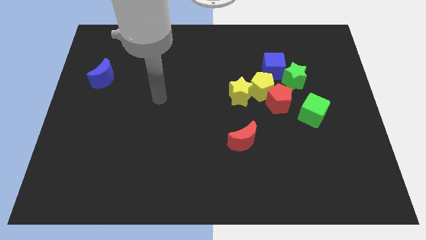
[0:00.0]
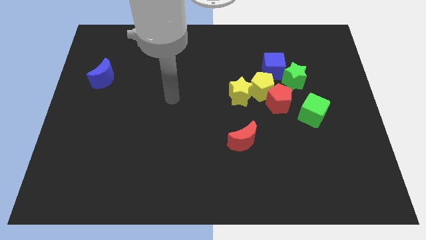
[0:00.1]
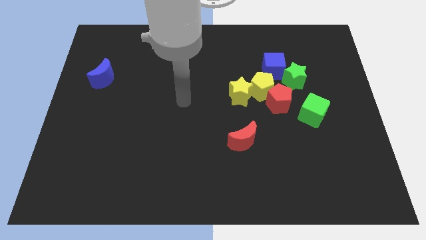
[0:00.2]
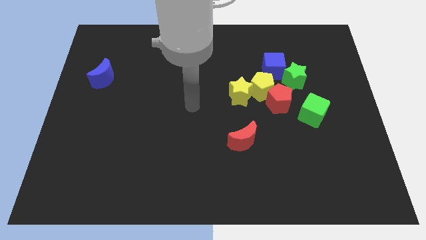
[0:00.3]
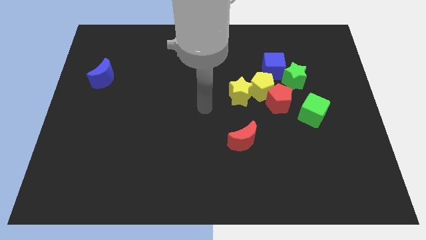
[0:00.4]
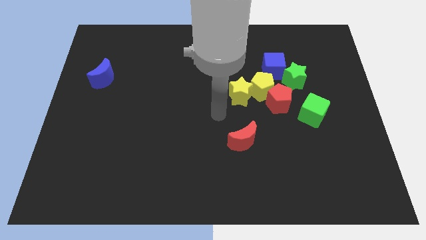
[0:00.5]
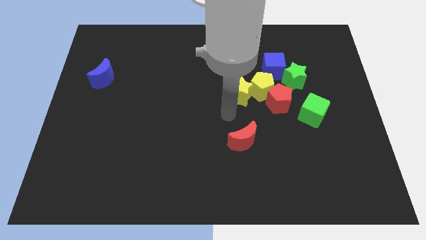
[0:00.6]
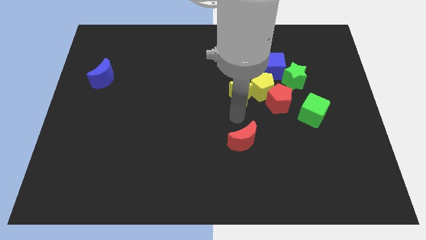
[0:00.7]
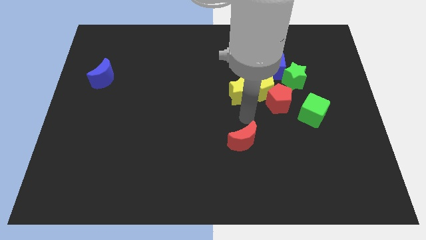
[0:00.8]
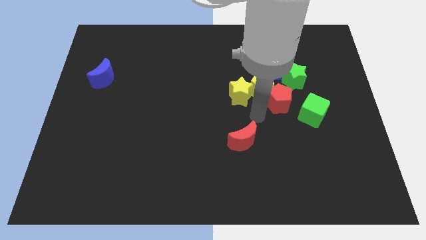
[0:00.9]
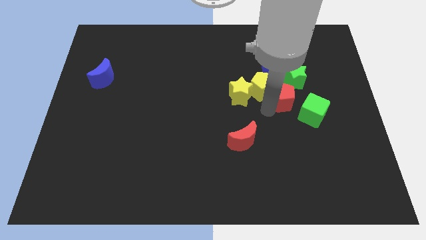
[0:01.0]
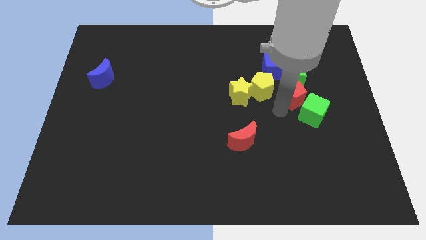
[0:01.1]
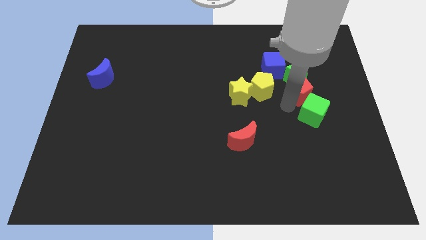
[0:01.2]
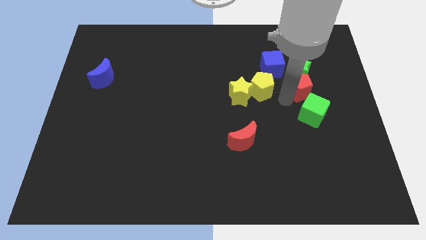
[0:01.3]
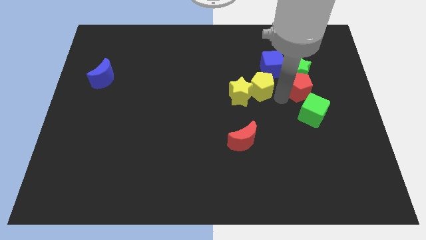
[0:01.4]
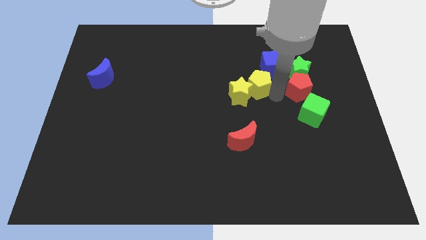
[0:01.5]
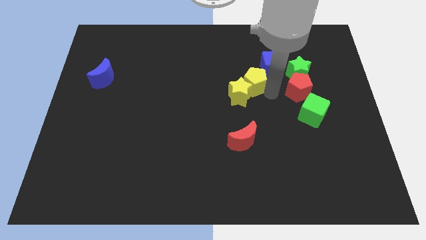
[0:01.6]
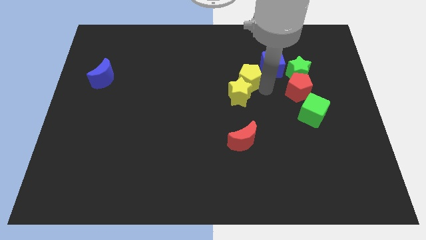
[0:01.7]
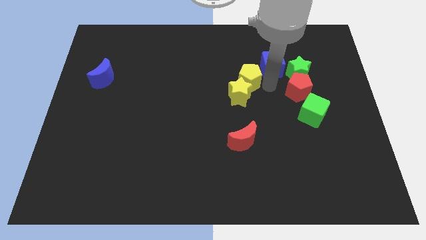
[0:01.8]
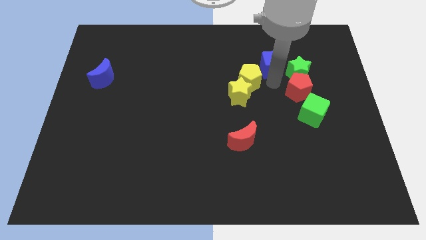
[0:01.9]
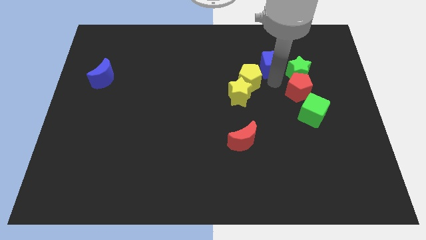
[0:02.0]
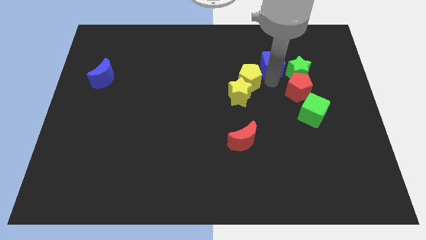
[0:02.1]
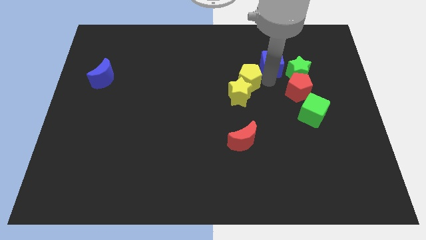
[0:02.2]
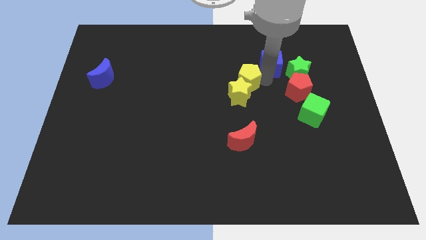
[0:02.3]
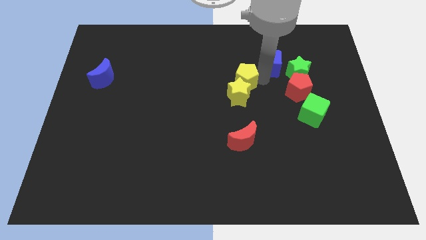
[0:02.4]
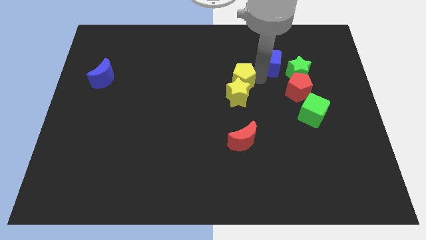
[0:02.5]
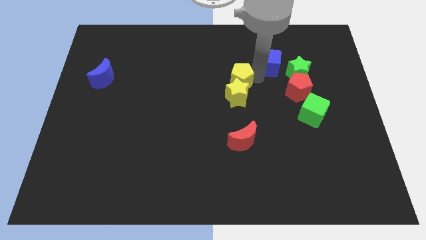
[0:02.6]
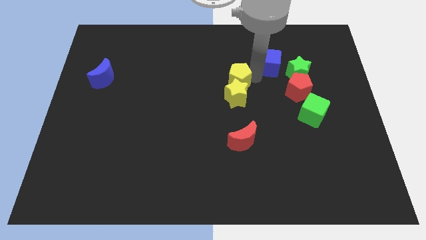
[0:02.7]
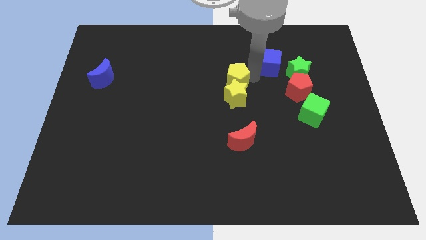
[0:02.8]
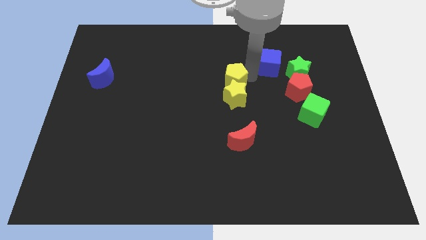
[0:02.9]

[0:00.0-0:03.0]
move the yellow pentagon away from the group of blocks

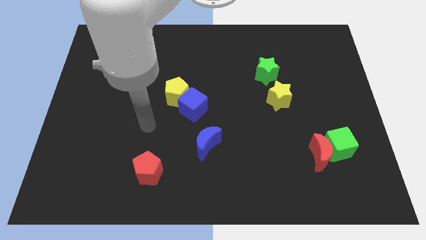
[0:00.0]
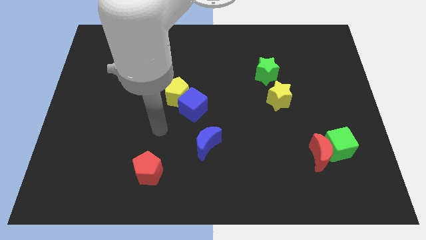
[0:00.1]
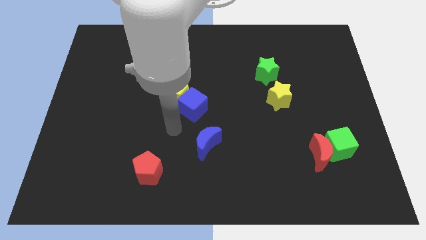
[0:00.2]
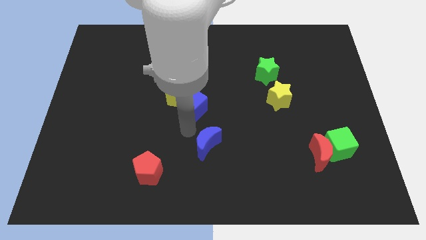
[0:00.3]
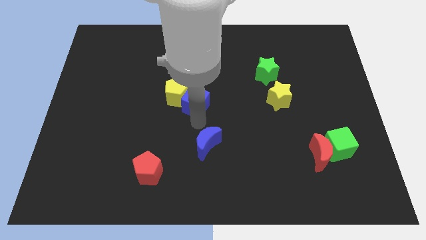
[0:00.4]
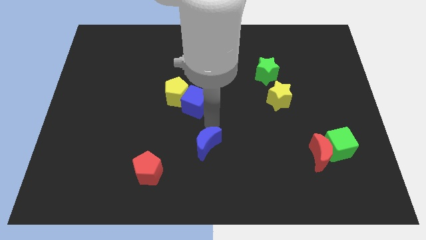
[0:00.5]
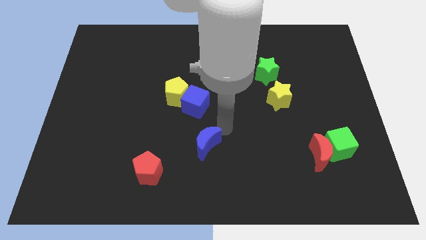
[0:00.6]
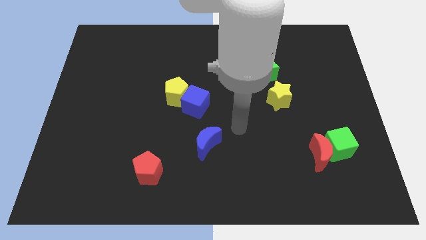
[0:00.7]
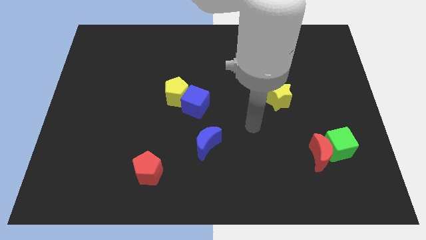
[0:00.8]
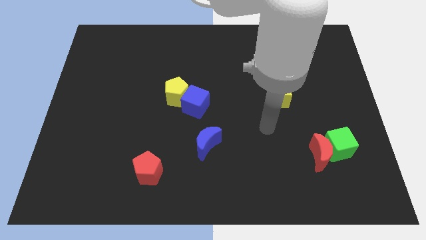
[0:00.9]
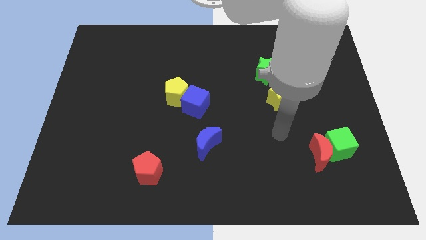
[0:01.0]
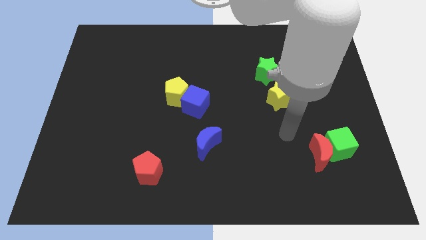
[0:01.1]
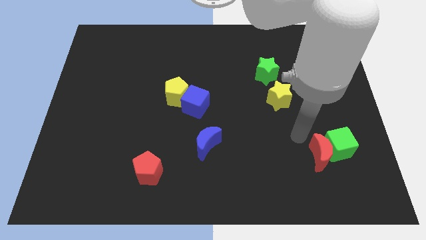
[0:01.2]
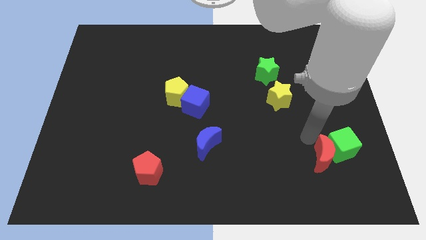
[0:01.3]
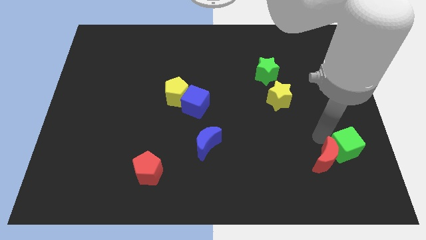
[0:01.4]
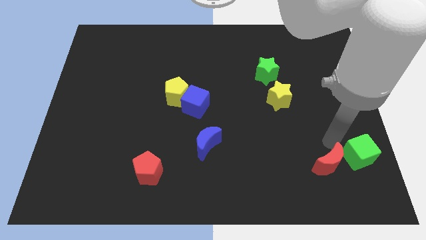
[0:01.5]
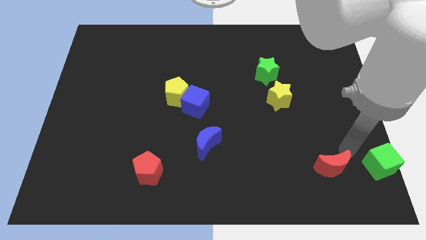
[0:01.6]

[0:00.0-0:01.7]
separate the red moon from the green cube

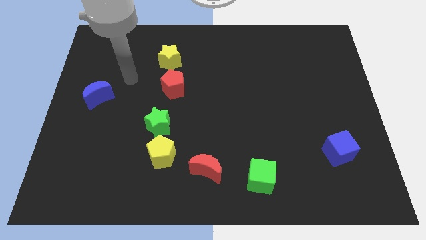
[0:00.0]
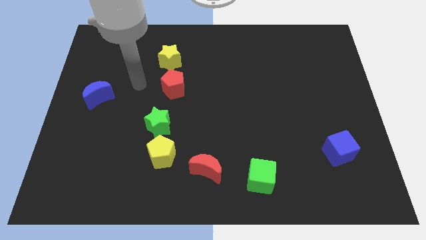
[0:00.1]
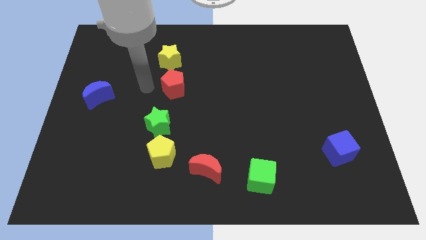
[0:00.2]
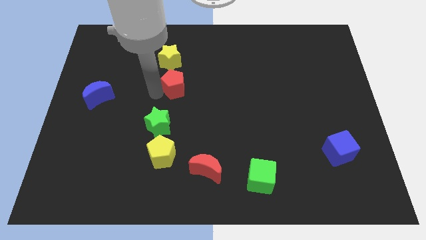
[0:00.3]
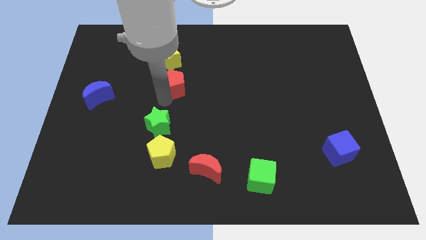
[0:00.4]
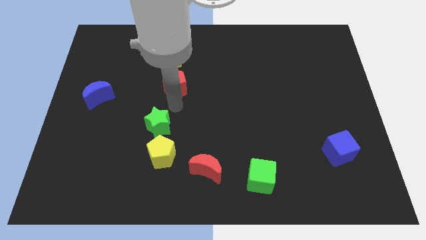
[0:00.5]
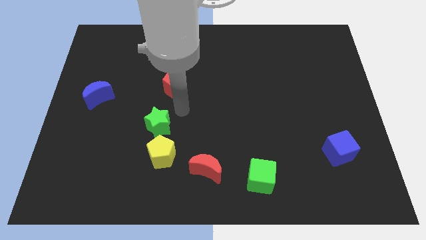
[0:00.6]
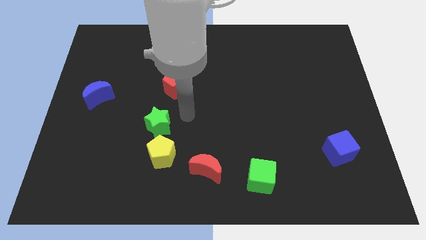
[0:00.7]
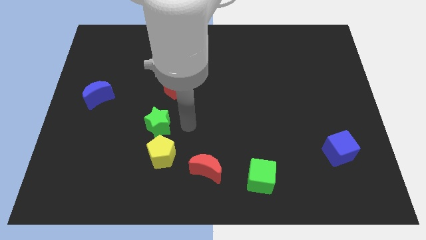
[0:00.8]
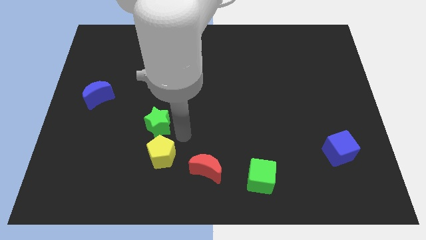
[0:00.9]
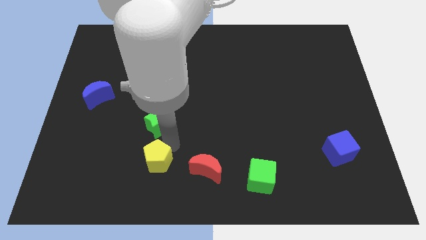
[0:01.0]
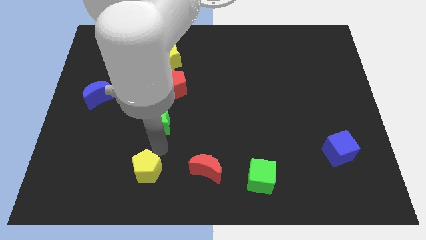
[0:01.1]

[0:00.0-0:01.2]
move the green star away from the yellow pentagon

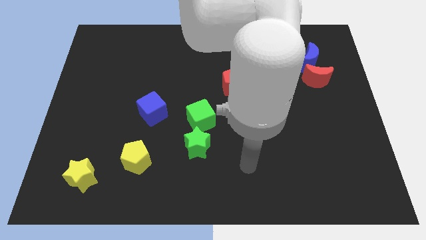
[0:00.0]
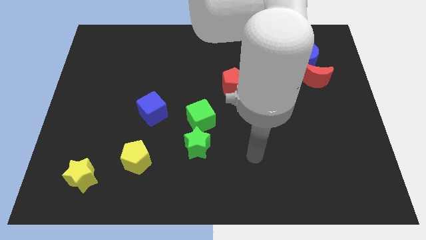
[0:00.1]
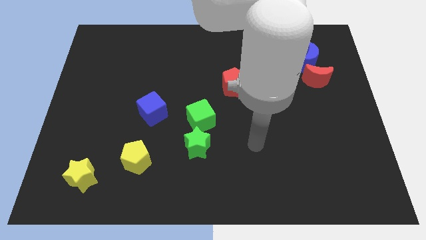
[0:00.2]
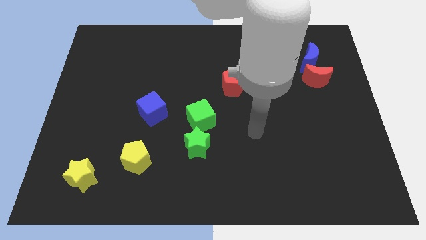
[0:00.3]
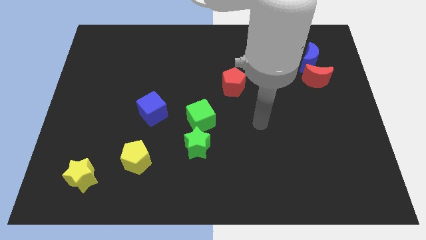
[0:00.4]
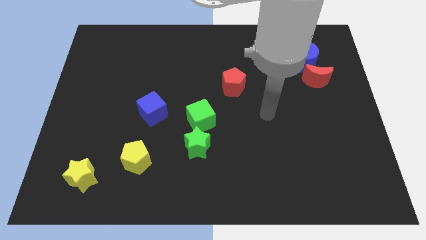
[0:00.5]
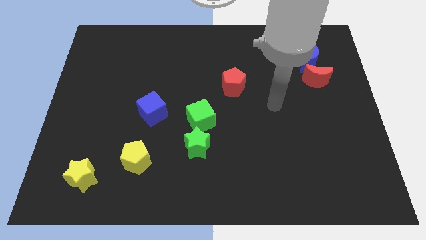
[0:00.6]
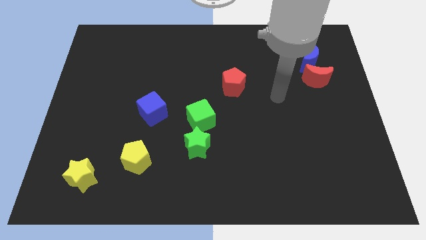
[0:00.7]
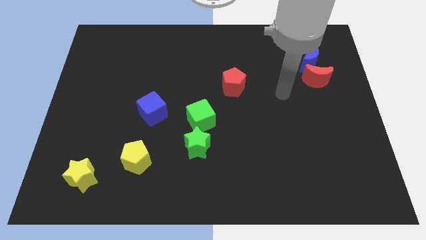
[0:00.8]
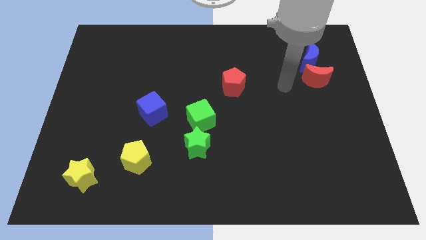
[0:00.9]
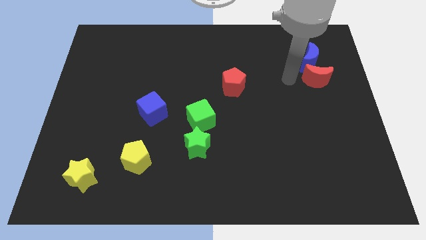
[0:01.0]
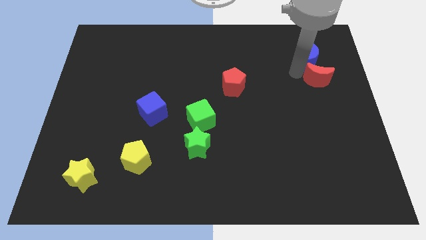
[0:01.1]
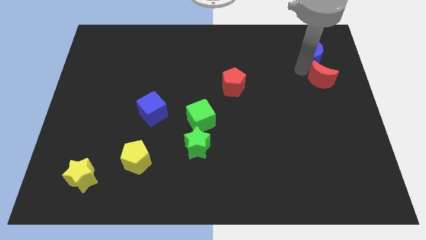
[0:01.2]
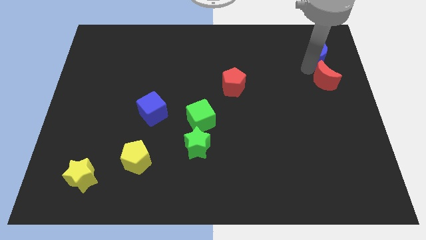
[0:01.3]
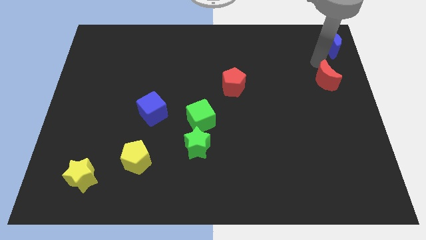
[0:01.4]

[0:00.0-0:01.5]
pull the red moon apart from the blue moon

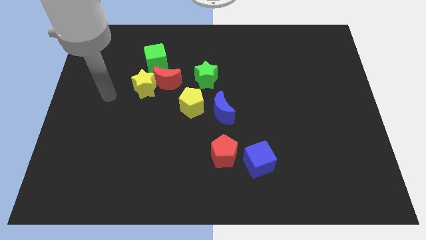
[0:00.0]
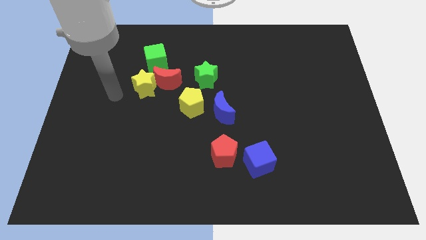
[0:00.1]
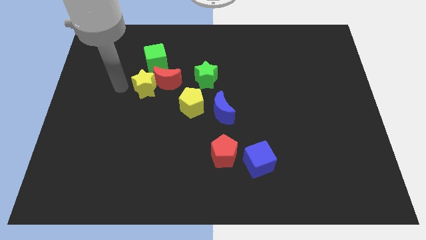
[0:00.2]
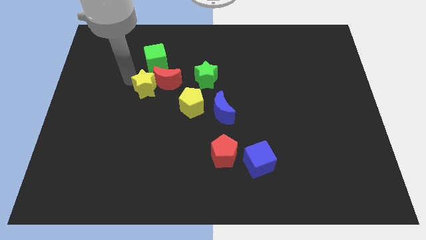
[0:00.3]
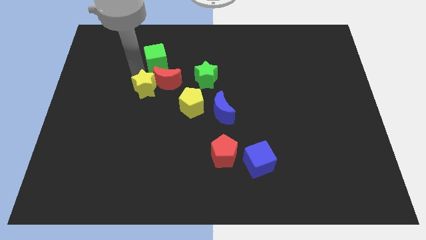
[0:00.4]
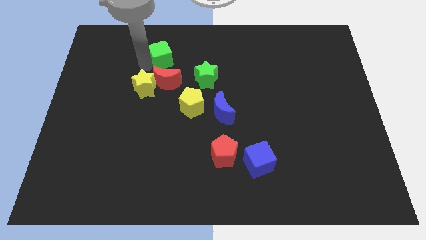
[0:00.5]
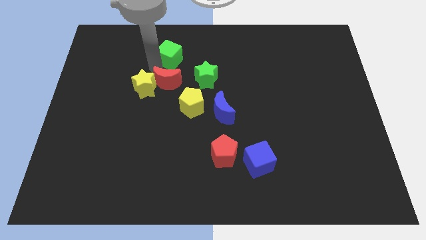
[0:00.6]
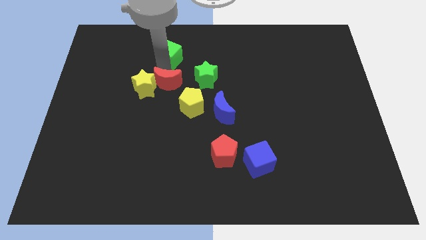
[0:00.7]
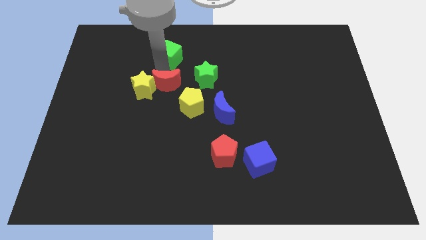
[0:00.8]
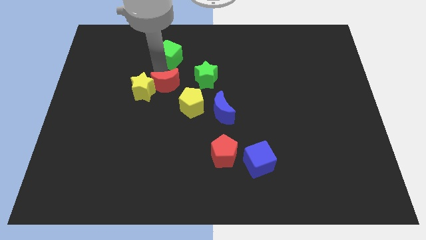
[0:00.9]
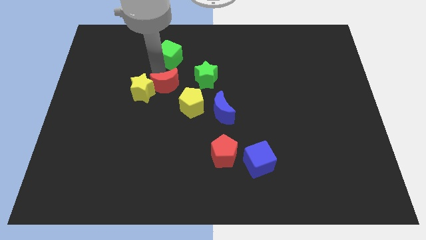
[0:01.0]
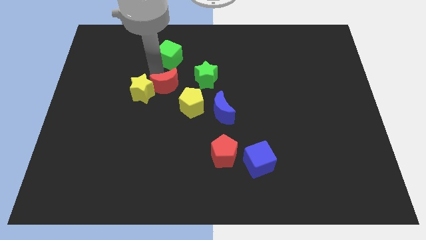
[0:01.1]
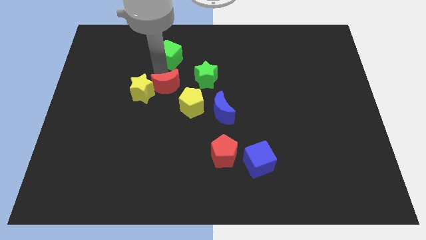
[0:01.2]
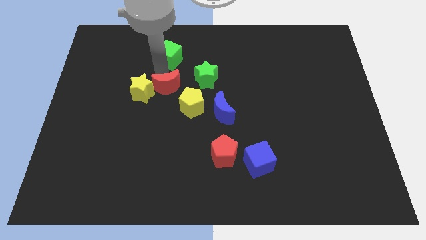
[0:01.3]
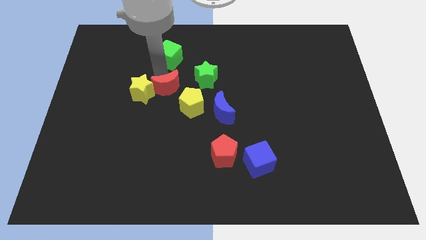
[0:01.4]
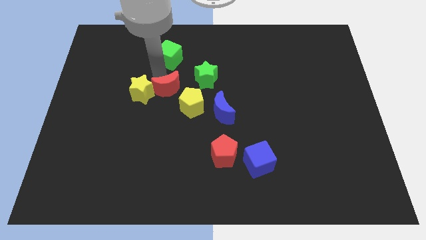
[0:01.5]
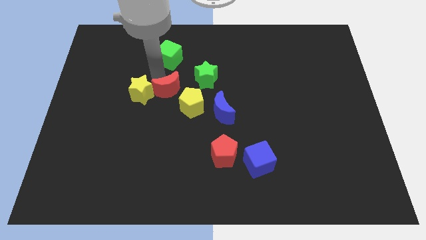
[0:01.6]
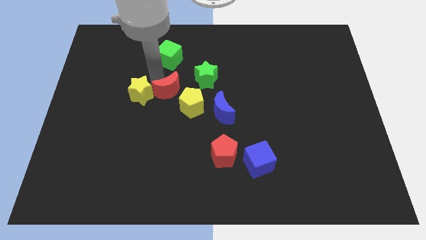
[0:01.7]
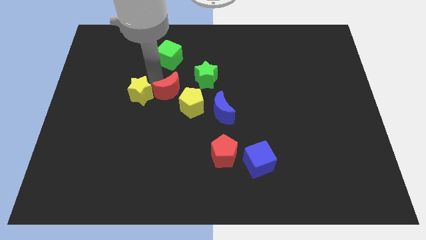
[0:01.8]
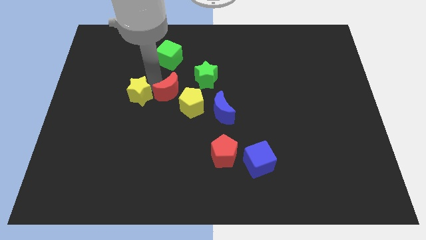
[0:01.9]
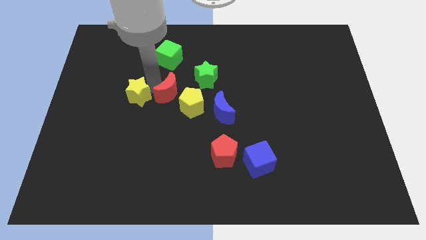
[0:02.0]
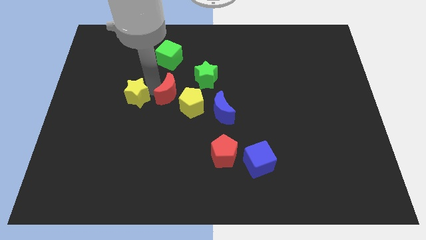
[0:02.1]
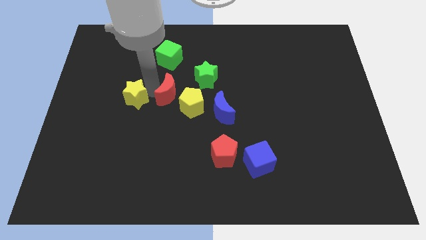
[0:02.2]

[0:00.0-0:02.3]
move the yellow star away from the red moon and green cube
